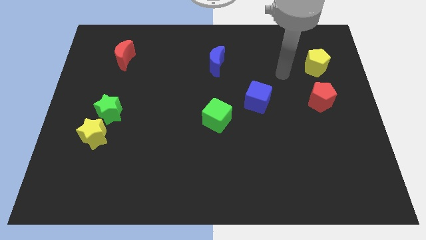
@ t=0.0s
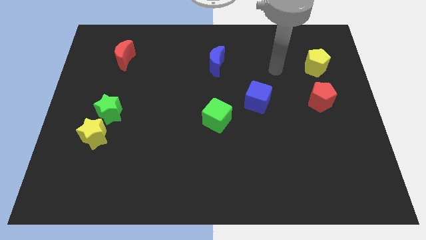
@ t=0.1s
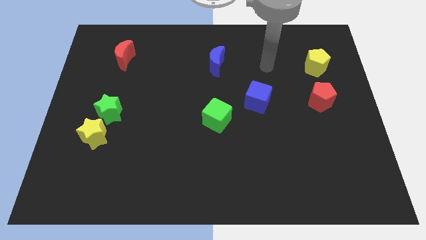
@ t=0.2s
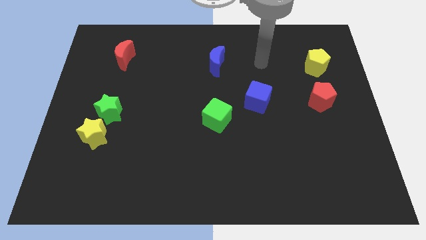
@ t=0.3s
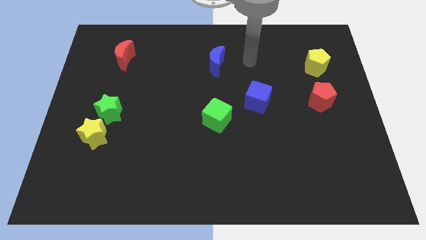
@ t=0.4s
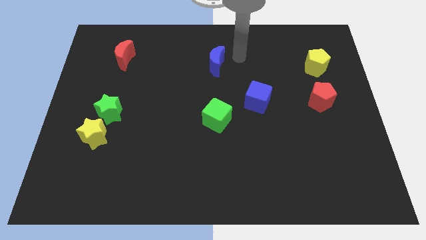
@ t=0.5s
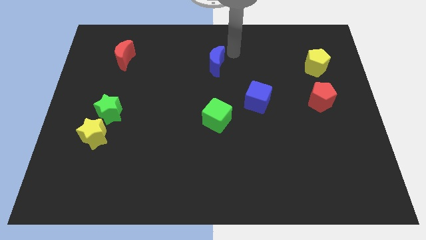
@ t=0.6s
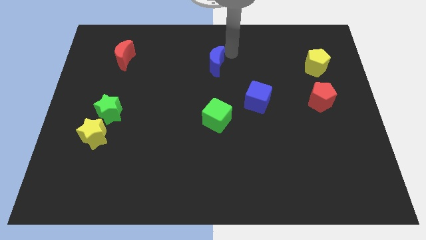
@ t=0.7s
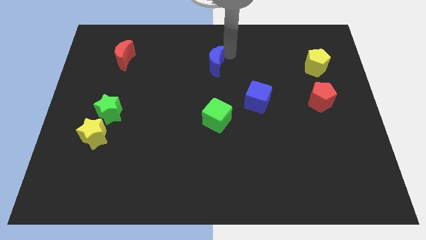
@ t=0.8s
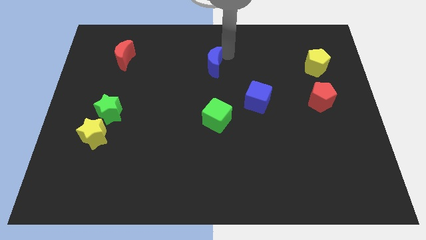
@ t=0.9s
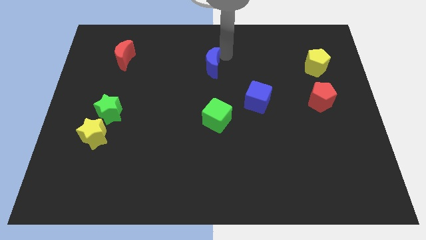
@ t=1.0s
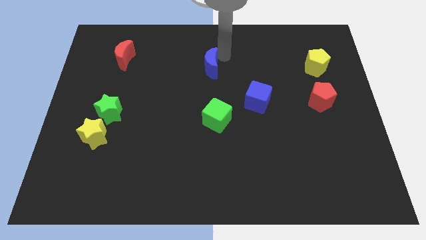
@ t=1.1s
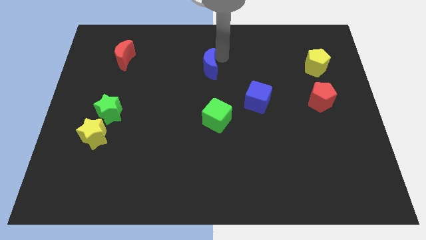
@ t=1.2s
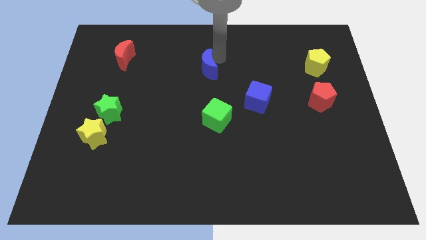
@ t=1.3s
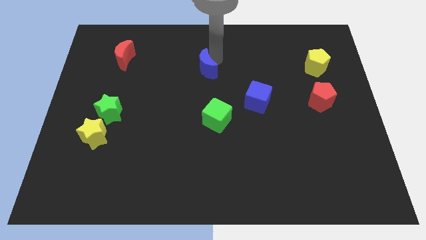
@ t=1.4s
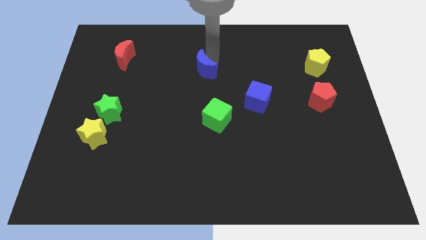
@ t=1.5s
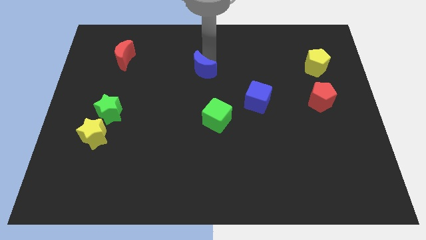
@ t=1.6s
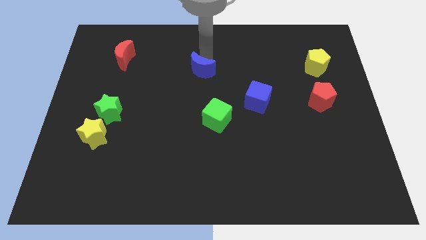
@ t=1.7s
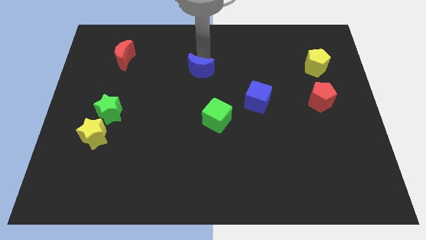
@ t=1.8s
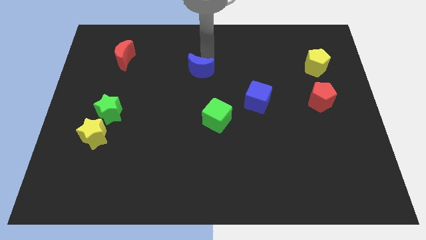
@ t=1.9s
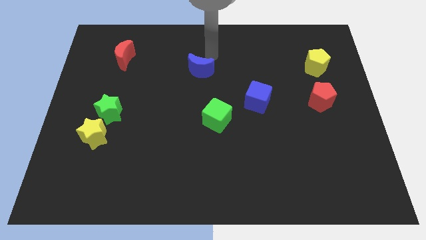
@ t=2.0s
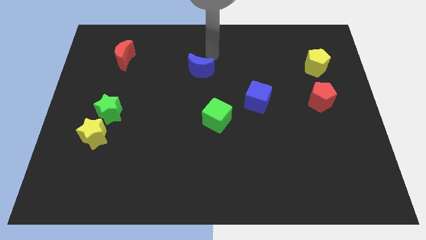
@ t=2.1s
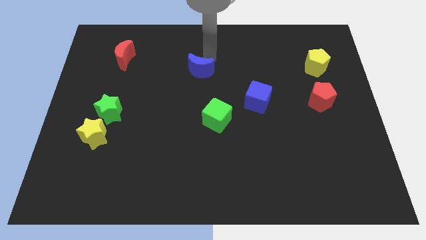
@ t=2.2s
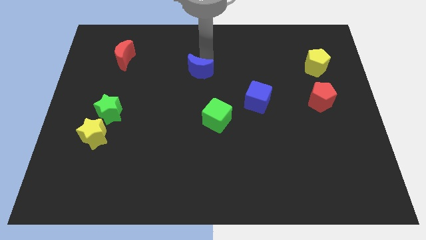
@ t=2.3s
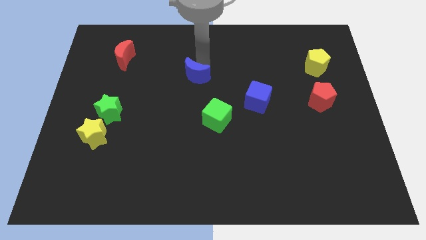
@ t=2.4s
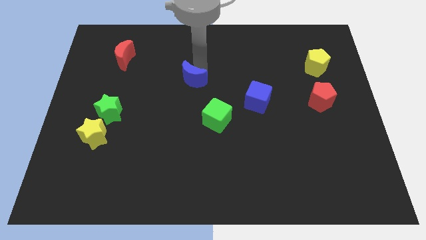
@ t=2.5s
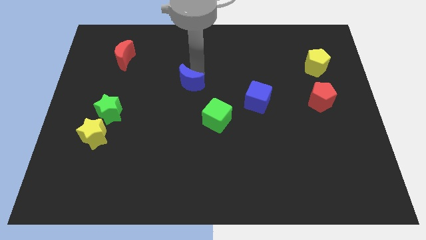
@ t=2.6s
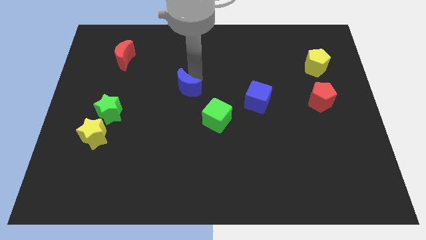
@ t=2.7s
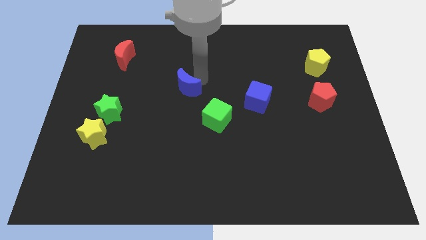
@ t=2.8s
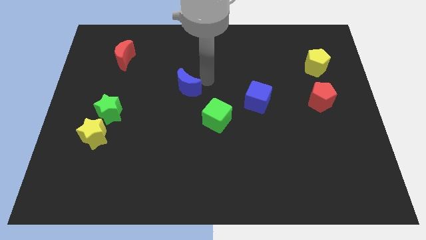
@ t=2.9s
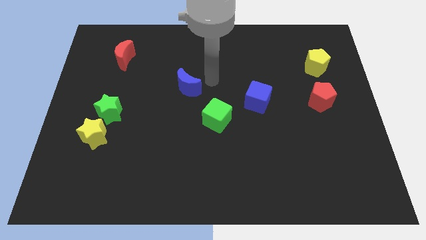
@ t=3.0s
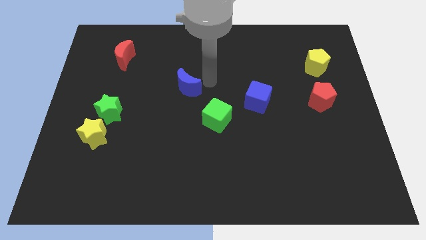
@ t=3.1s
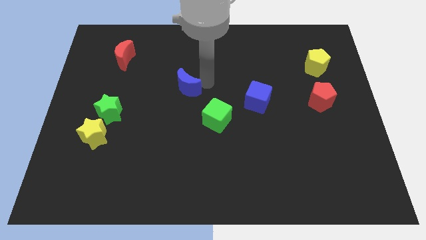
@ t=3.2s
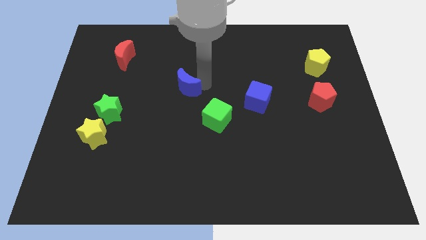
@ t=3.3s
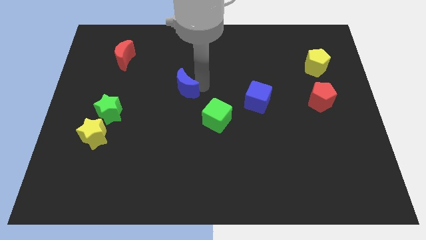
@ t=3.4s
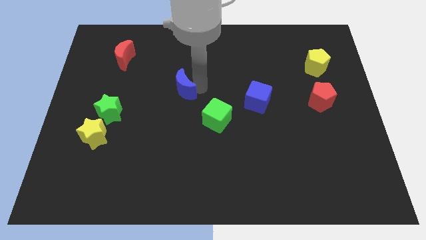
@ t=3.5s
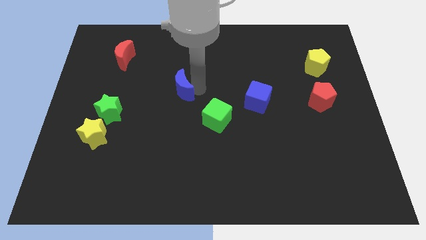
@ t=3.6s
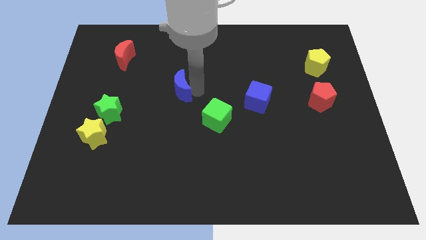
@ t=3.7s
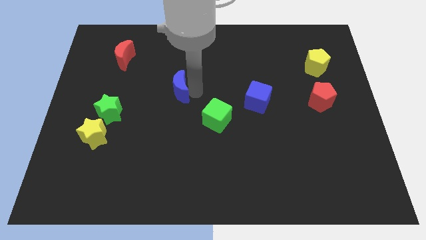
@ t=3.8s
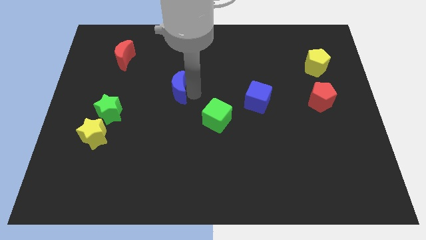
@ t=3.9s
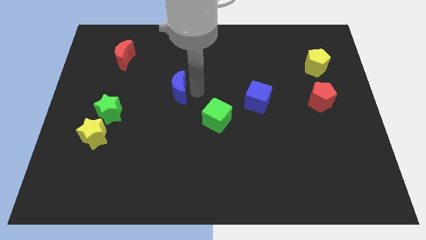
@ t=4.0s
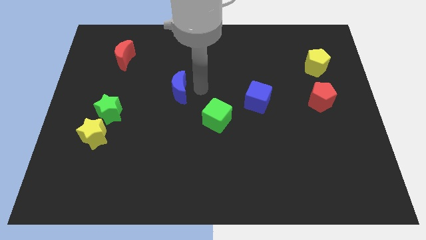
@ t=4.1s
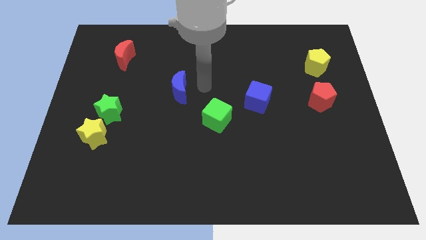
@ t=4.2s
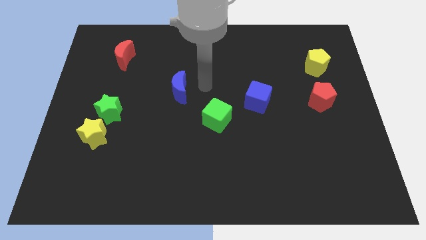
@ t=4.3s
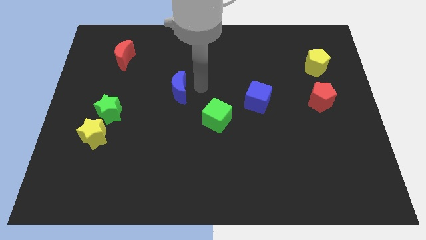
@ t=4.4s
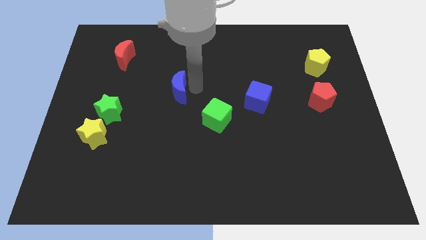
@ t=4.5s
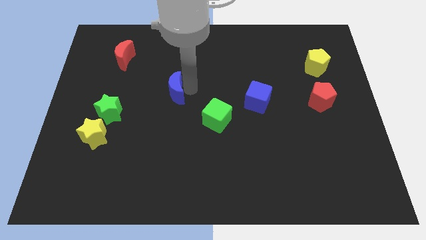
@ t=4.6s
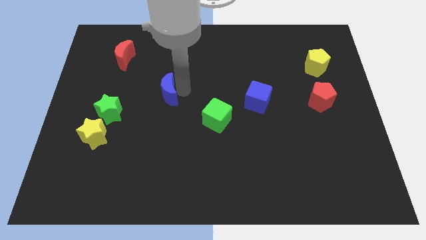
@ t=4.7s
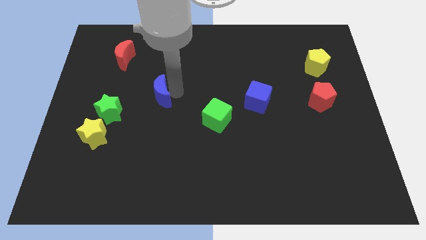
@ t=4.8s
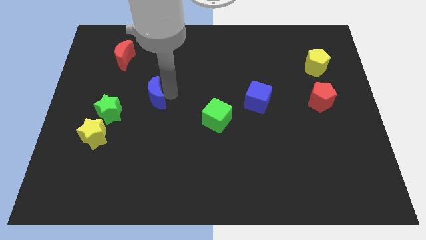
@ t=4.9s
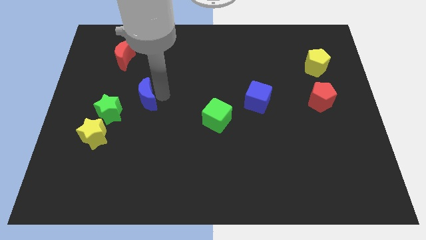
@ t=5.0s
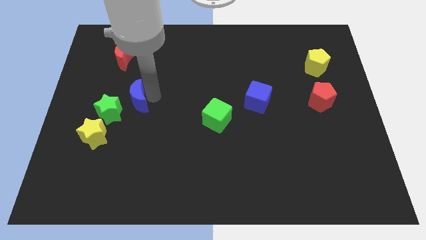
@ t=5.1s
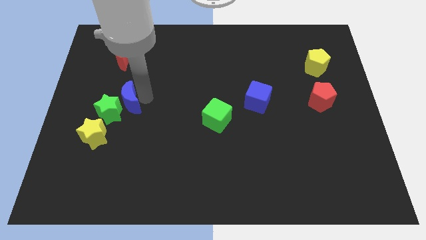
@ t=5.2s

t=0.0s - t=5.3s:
push the blue moon to the green star

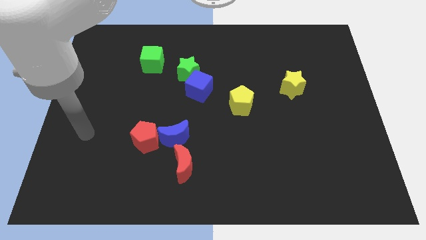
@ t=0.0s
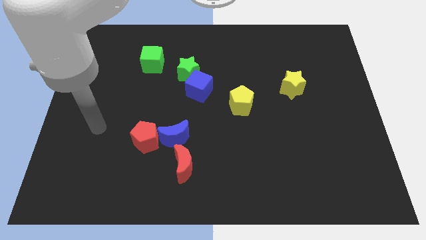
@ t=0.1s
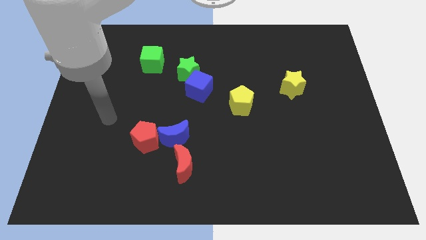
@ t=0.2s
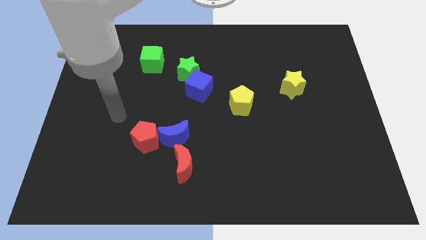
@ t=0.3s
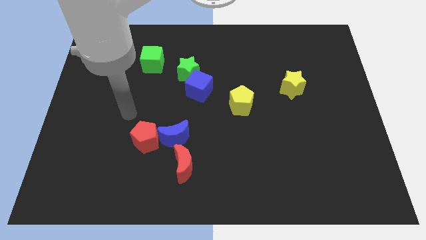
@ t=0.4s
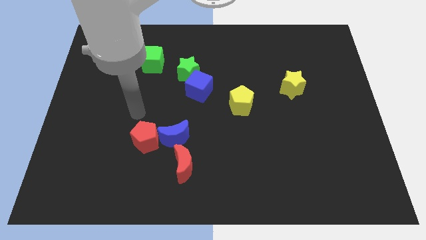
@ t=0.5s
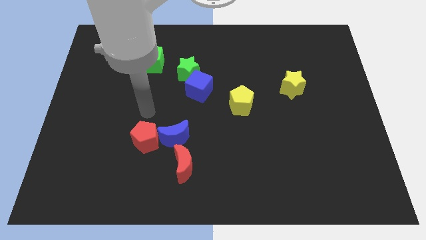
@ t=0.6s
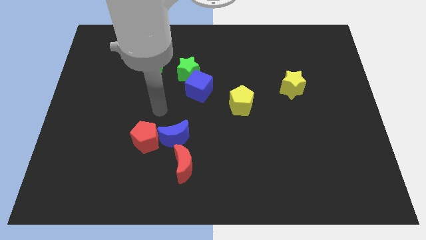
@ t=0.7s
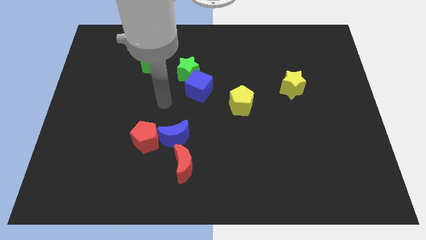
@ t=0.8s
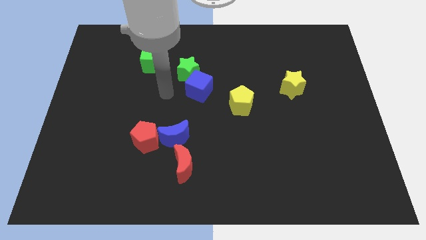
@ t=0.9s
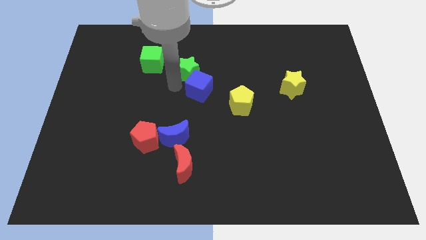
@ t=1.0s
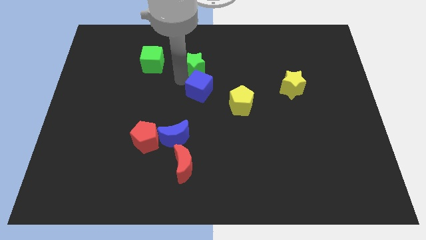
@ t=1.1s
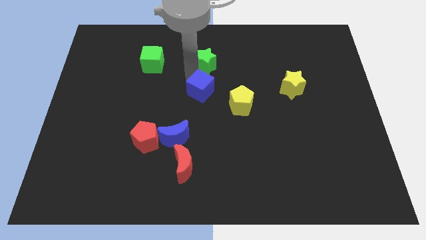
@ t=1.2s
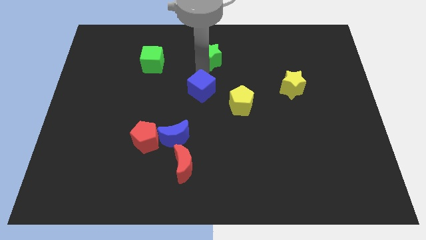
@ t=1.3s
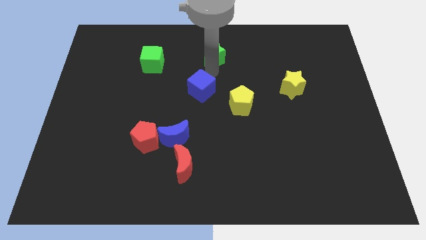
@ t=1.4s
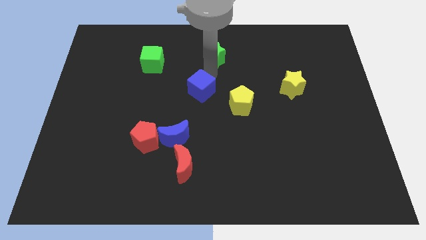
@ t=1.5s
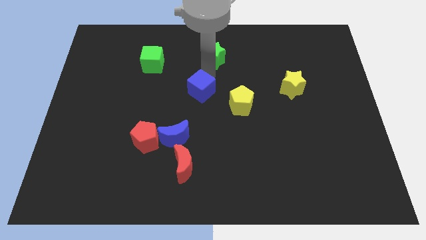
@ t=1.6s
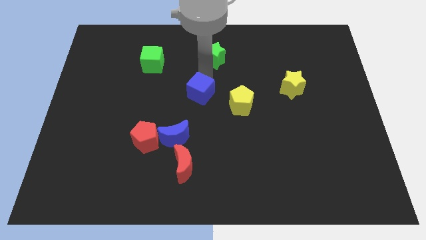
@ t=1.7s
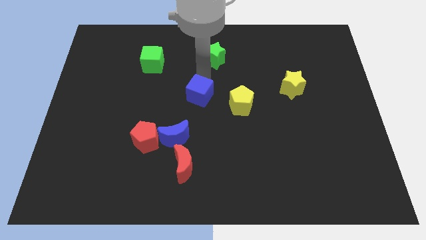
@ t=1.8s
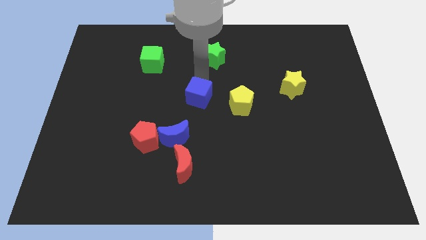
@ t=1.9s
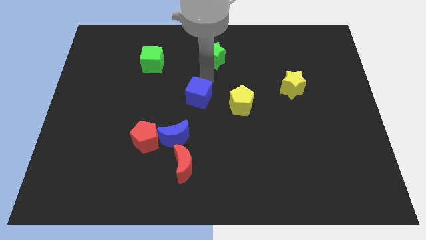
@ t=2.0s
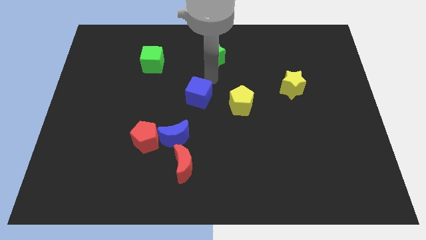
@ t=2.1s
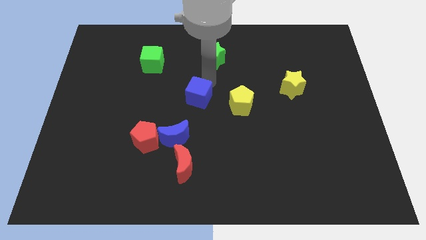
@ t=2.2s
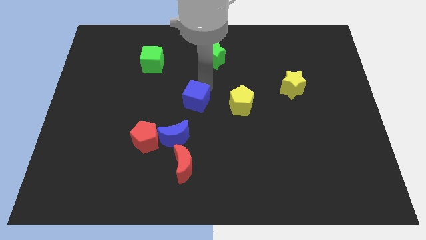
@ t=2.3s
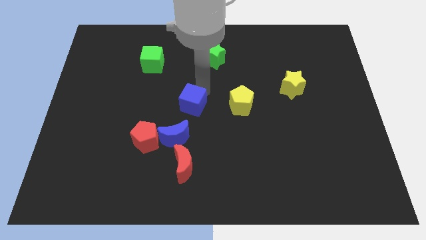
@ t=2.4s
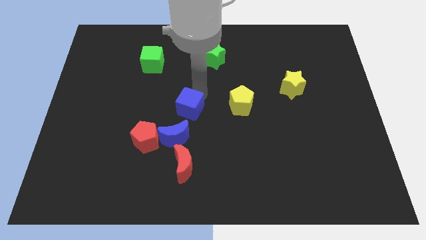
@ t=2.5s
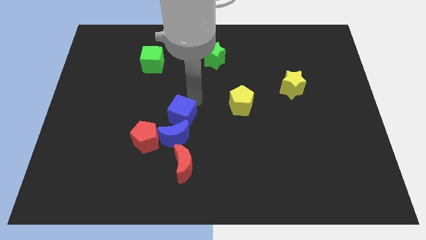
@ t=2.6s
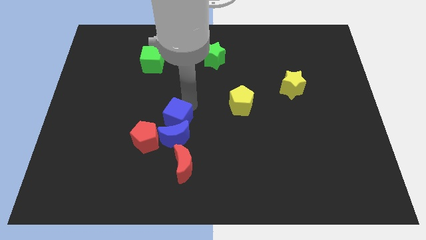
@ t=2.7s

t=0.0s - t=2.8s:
push the blue cube to the blue moon
